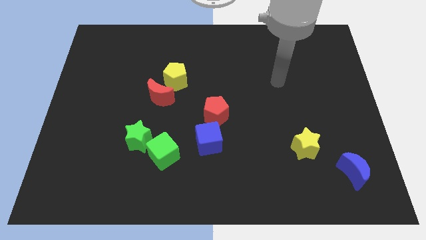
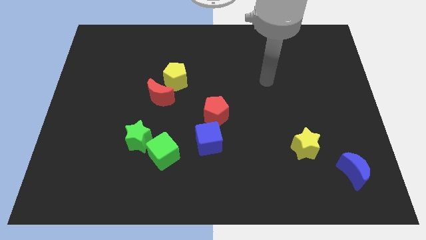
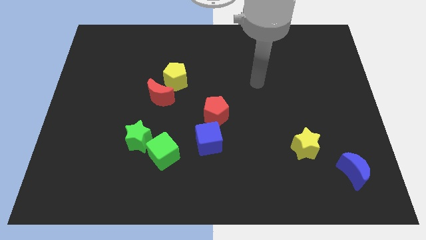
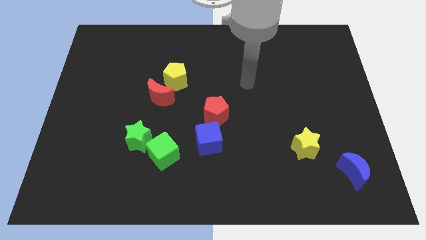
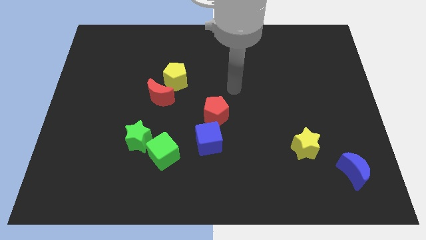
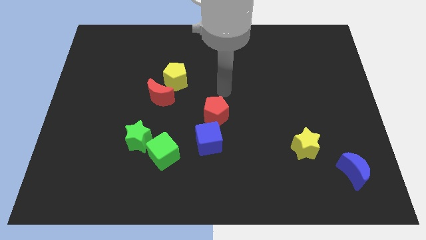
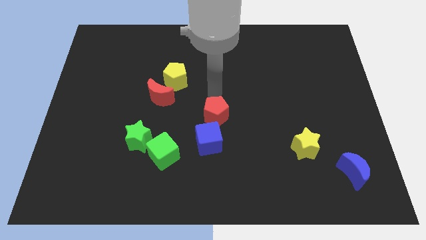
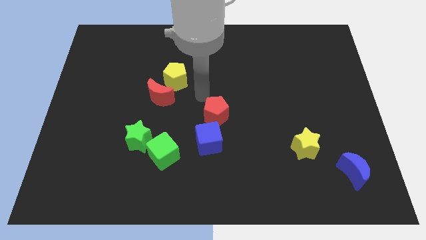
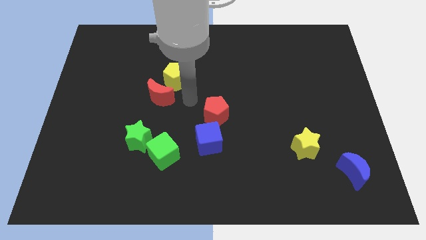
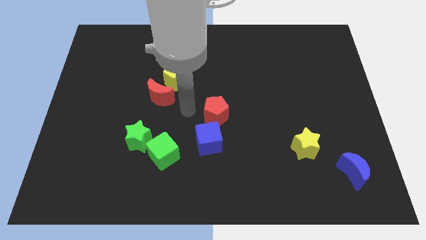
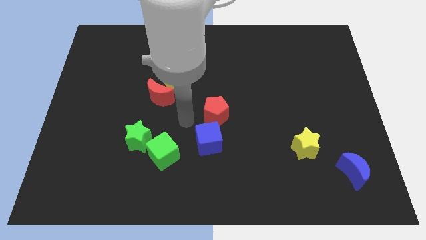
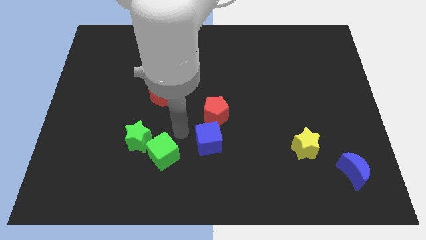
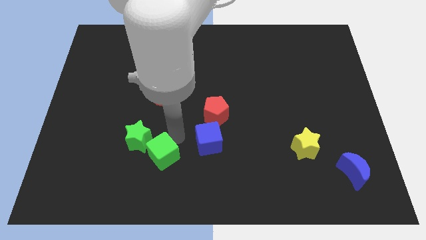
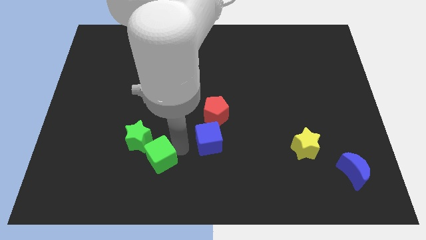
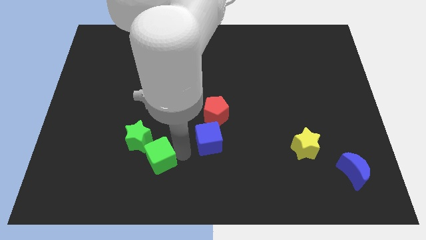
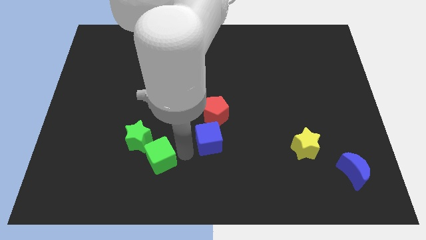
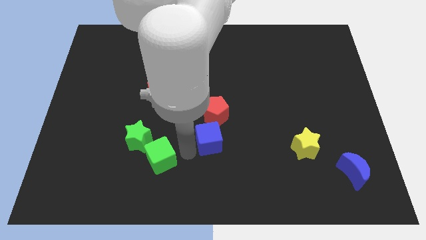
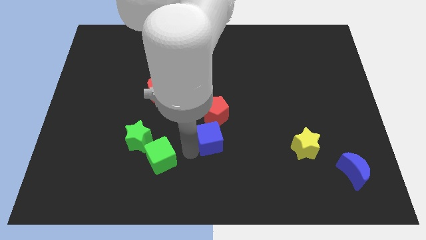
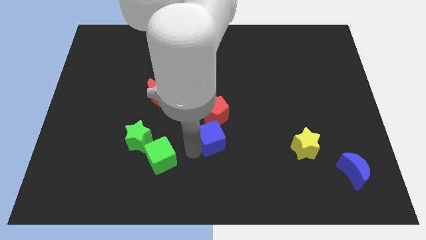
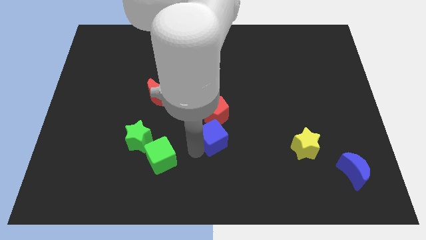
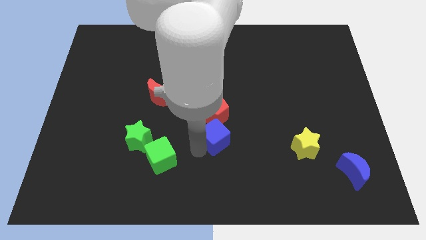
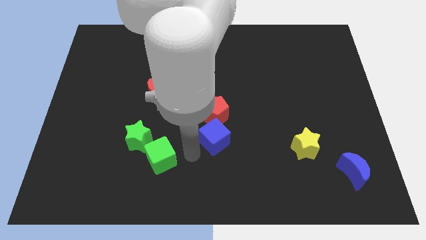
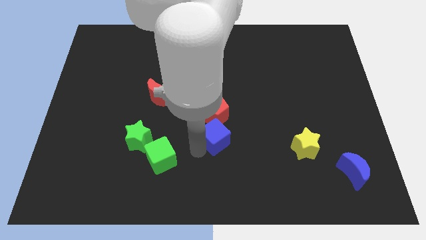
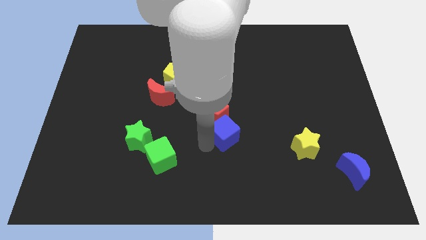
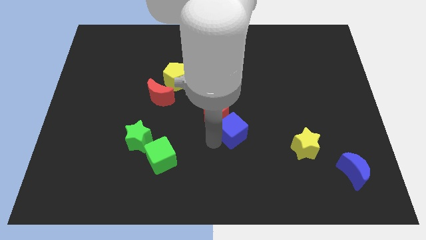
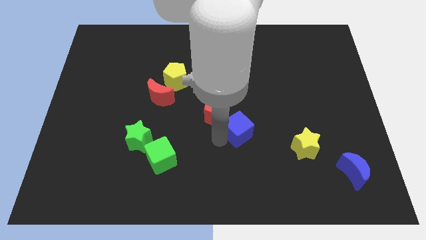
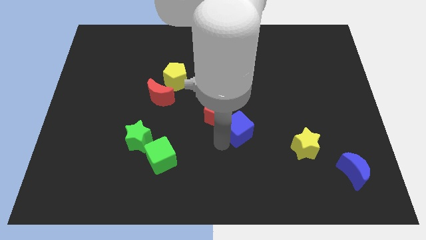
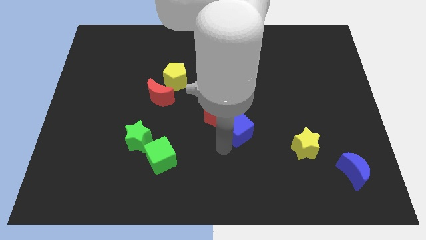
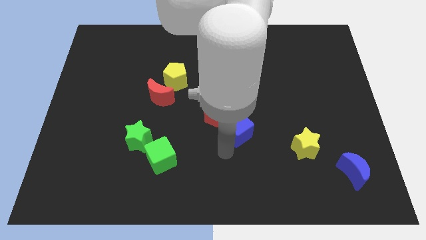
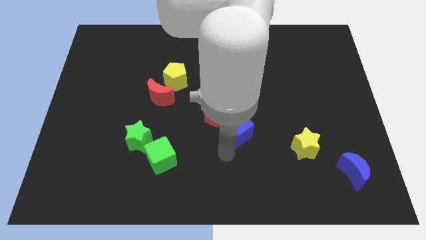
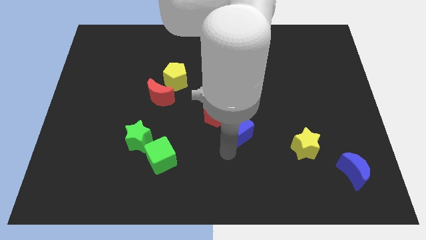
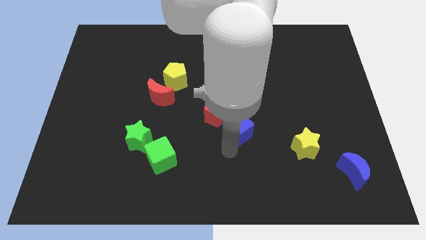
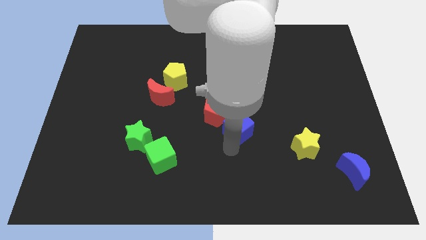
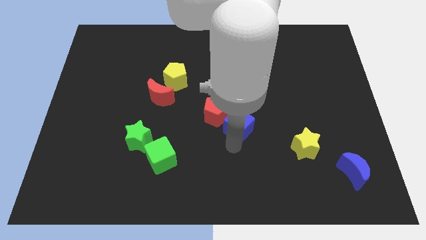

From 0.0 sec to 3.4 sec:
push the blue cube upwards and right diagonally somewhat

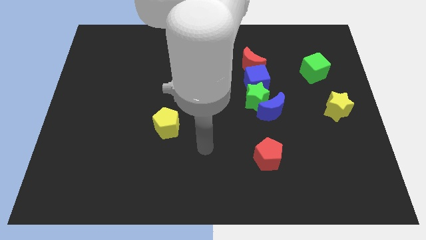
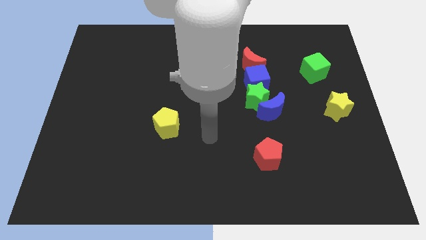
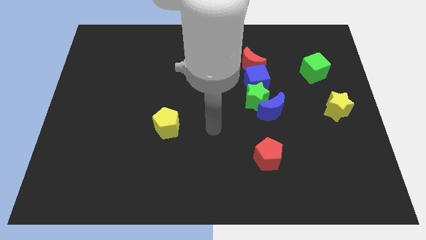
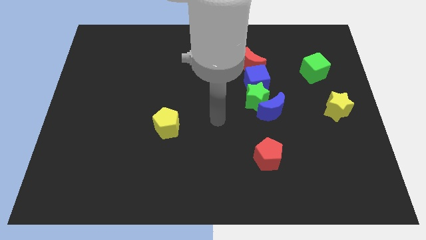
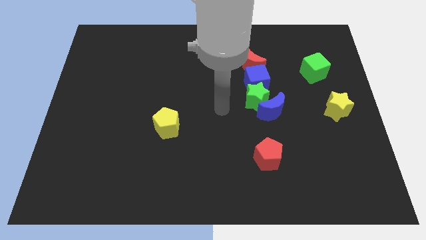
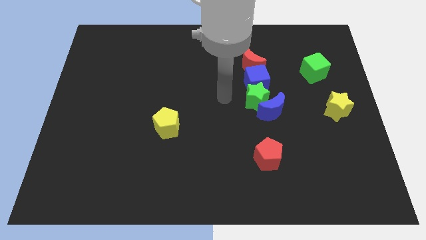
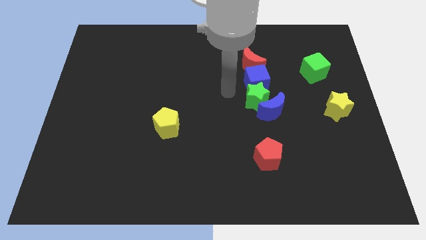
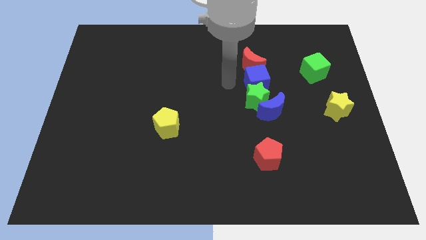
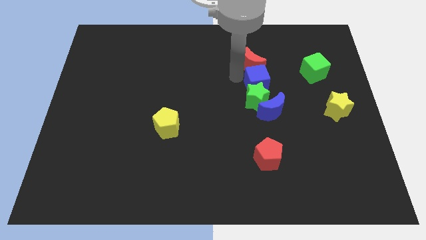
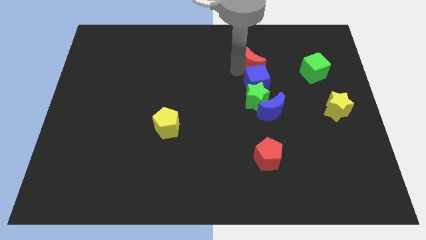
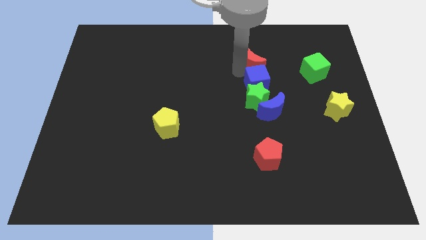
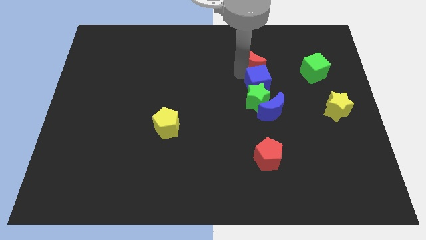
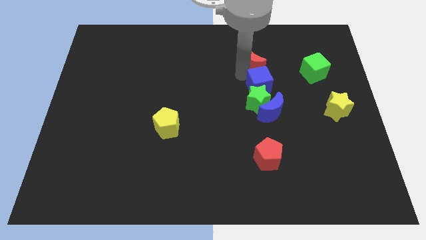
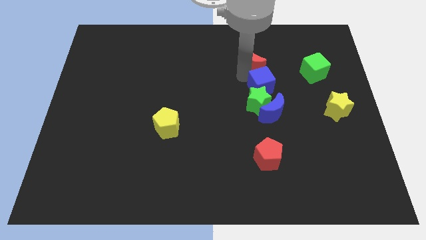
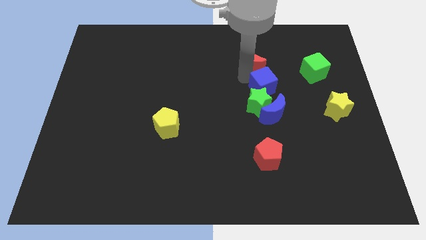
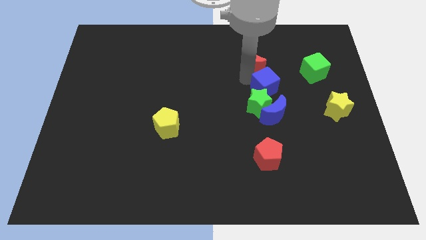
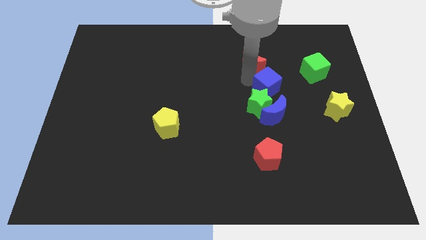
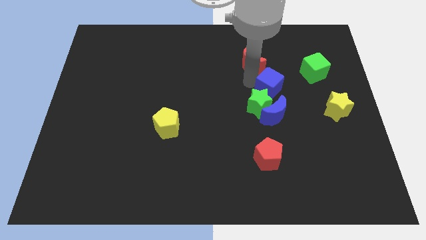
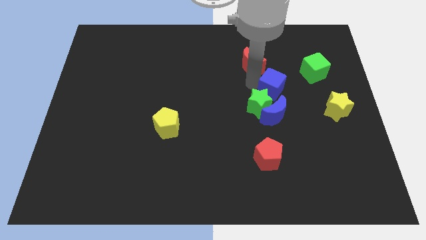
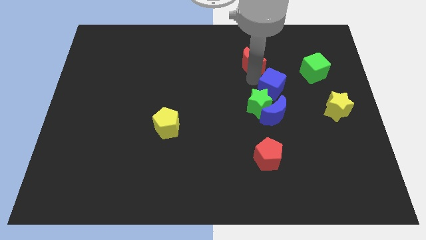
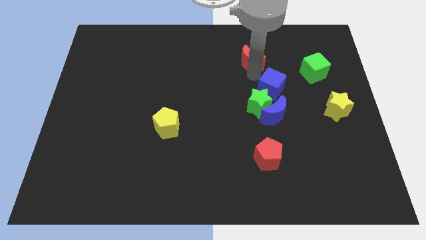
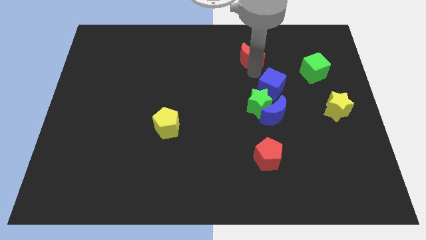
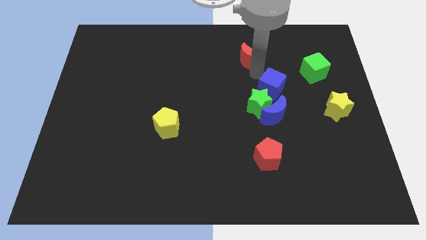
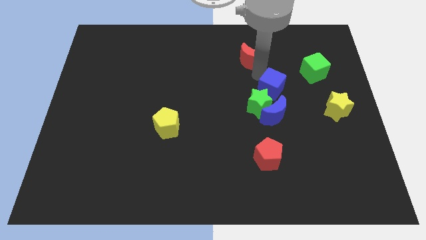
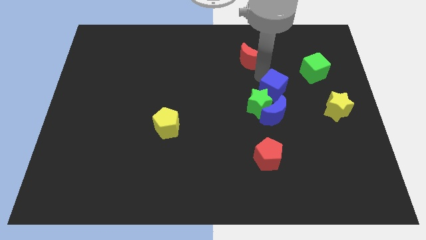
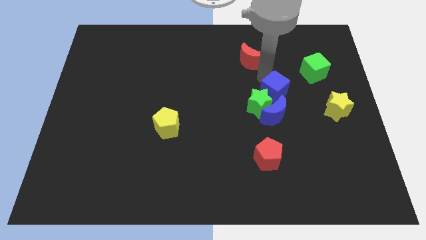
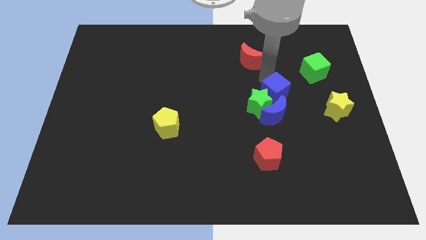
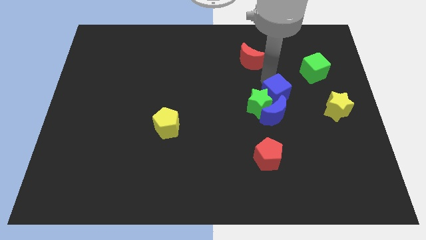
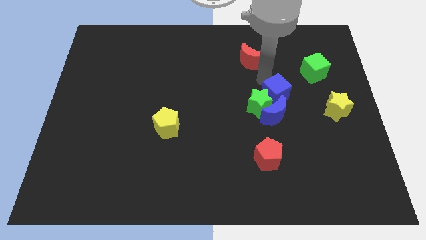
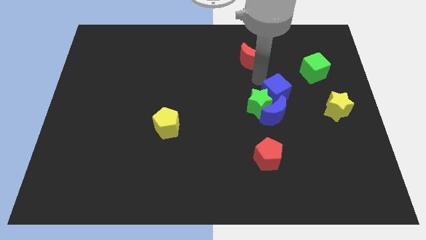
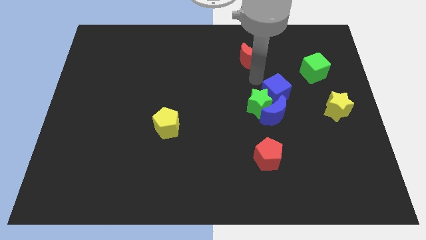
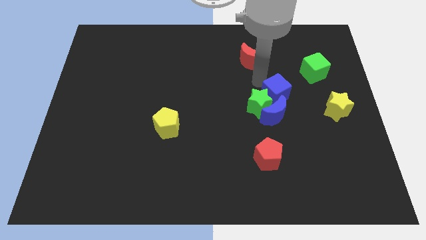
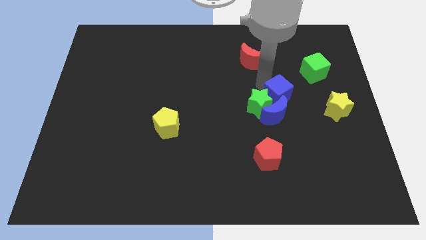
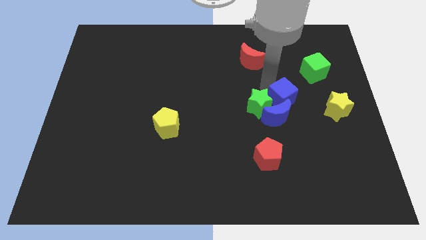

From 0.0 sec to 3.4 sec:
slide the blue cube a little bit down and right

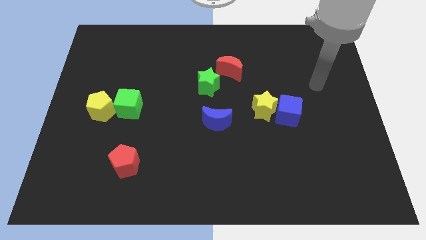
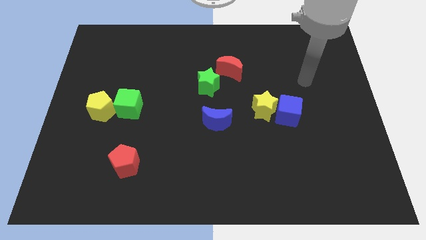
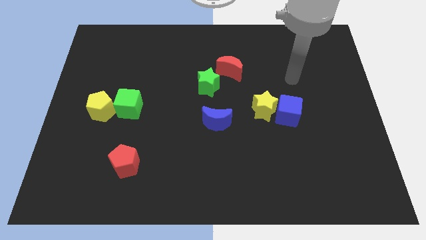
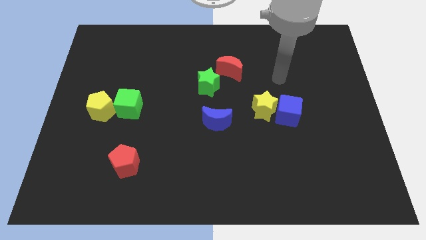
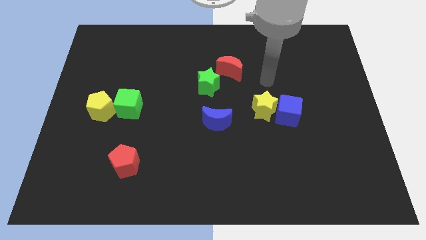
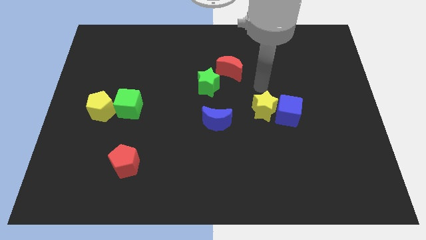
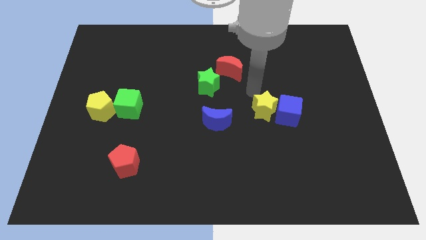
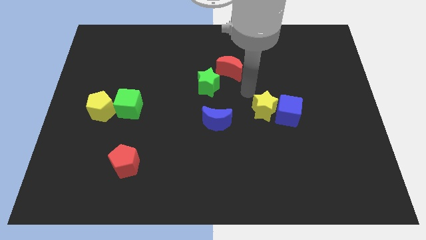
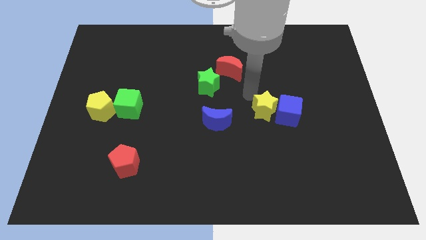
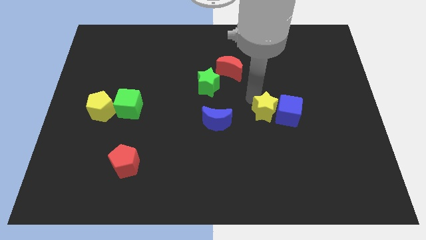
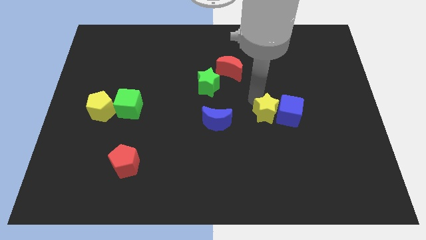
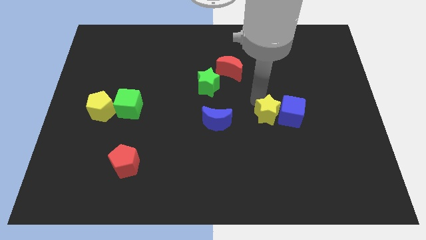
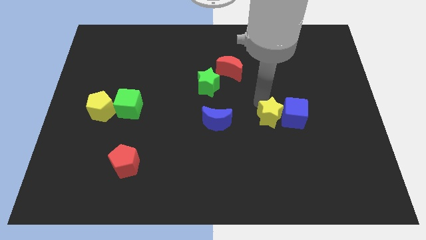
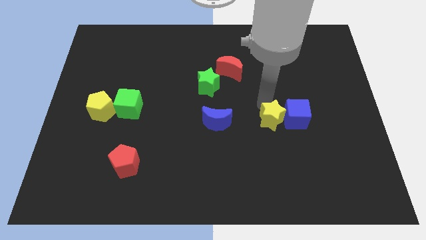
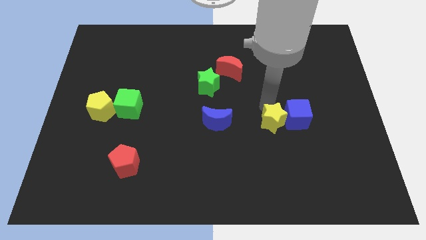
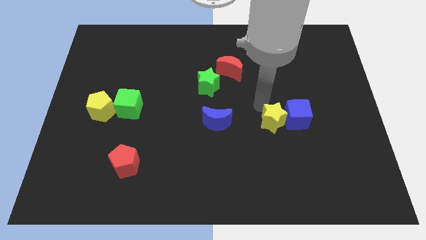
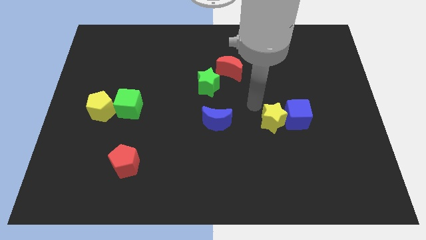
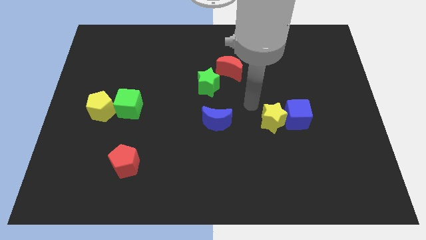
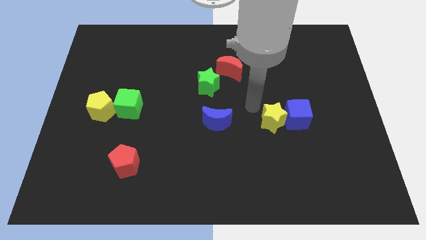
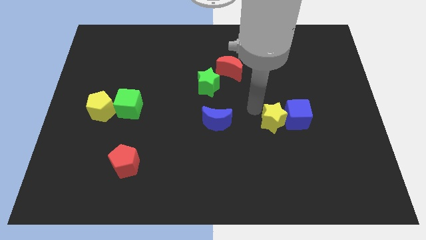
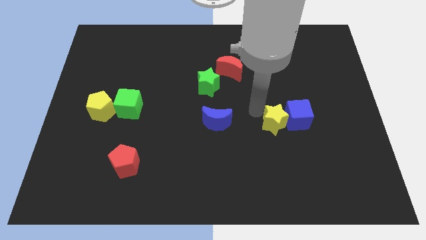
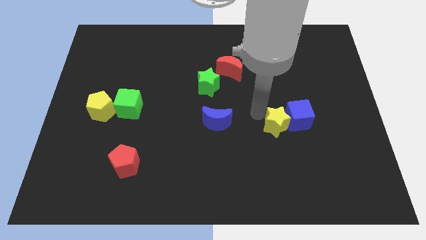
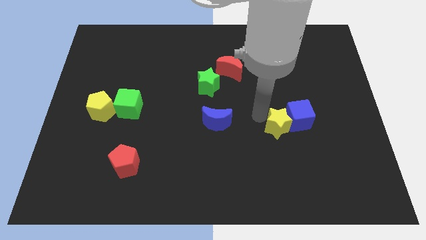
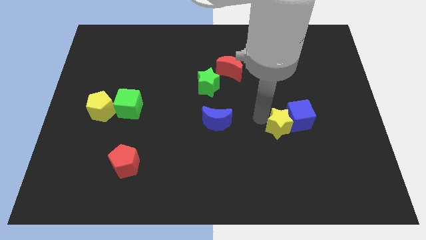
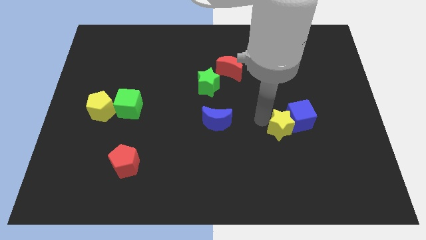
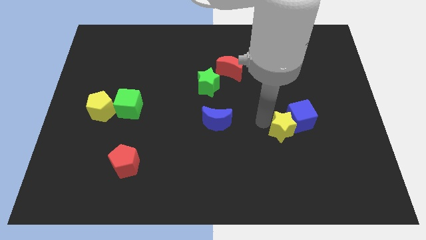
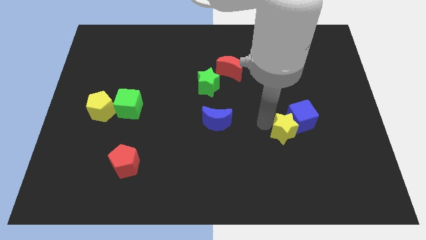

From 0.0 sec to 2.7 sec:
slightly slide the yellow star down and then to the right
